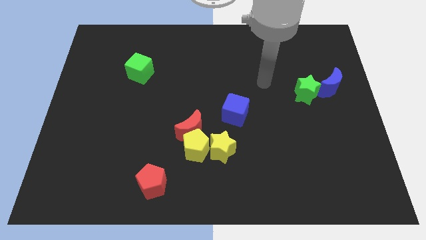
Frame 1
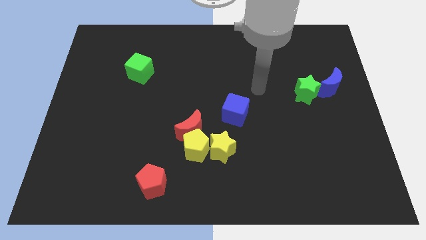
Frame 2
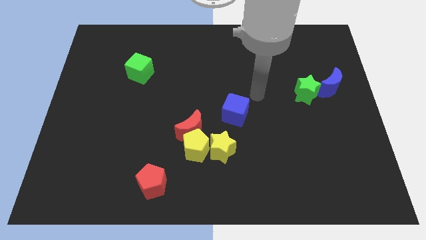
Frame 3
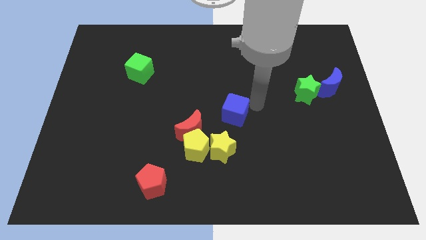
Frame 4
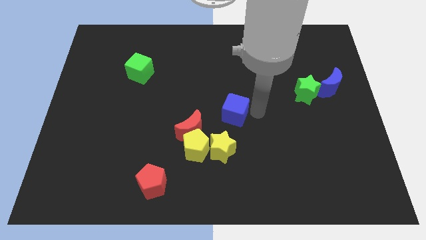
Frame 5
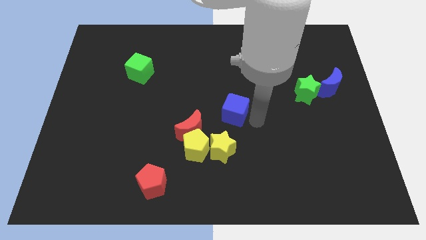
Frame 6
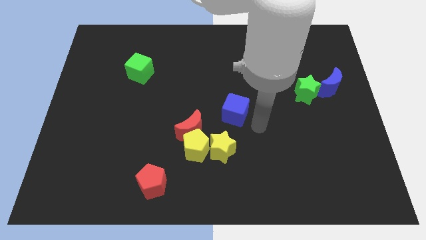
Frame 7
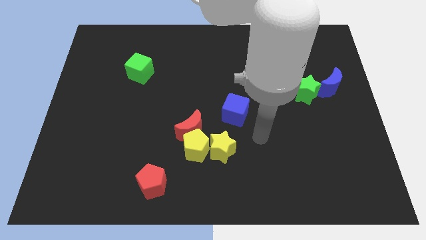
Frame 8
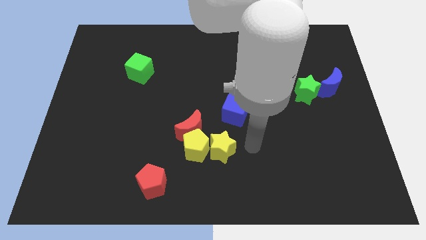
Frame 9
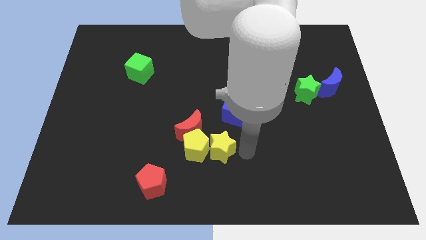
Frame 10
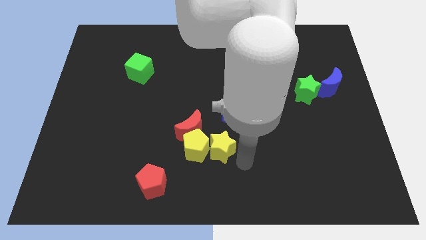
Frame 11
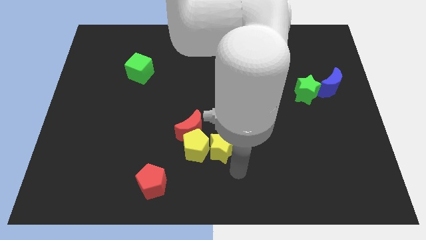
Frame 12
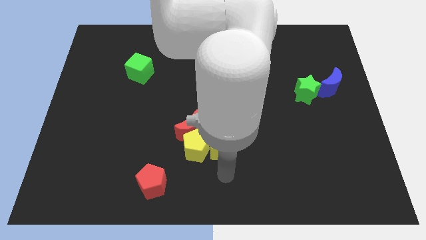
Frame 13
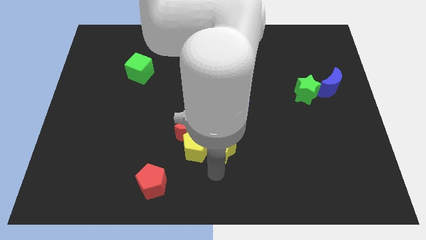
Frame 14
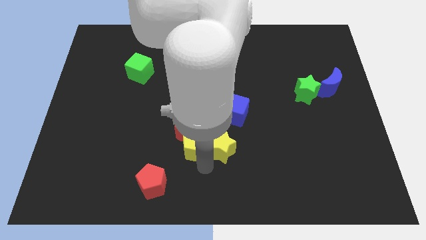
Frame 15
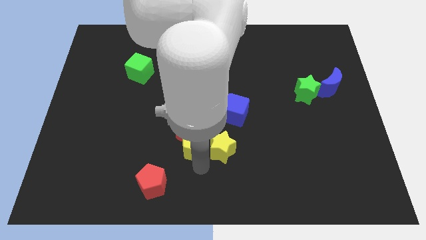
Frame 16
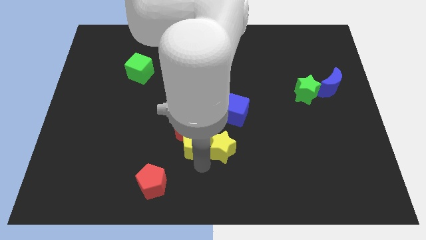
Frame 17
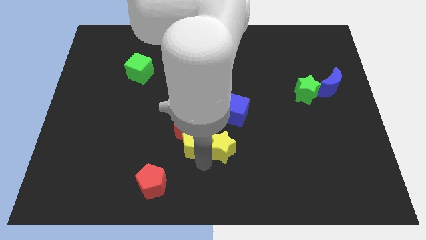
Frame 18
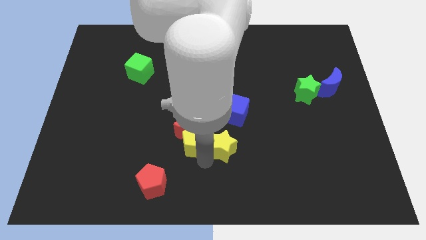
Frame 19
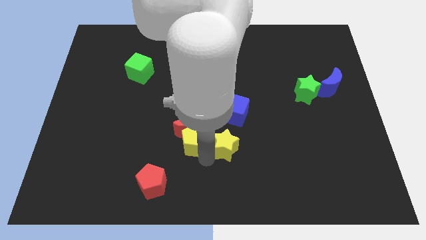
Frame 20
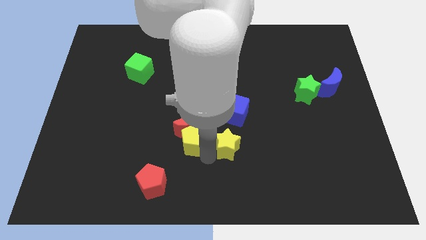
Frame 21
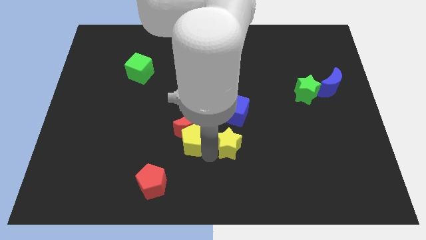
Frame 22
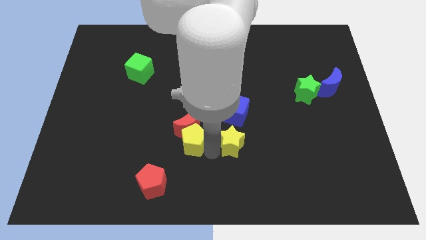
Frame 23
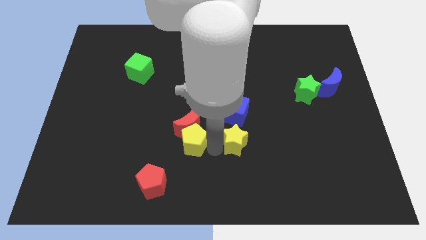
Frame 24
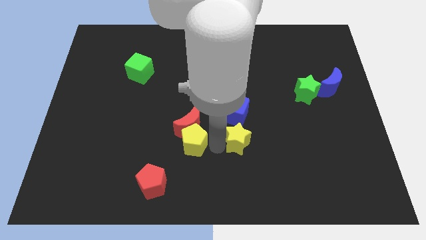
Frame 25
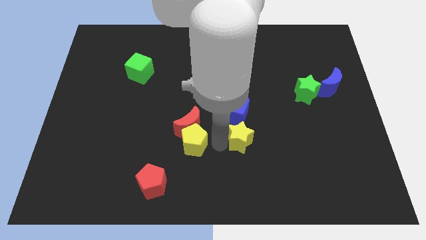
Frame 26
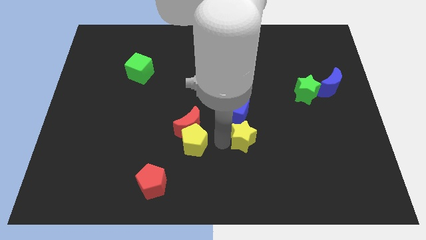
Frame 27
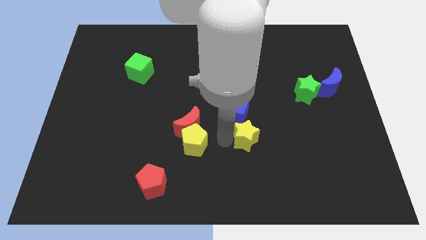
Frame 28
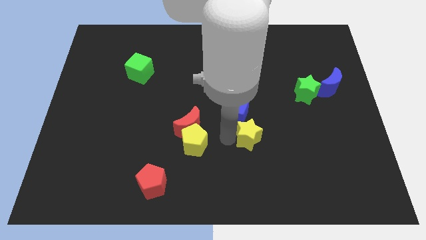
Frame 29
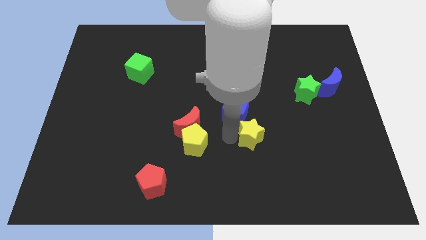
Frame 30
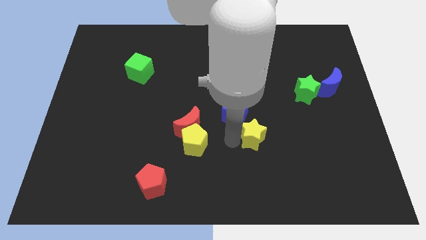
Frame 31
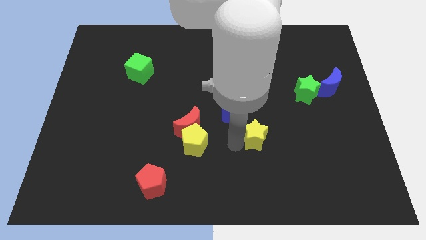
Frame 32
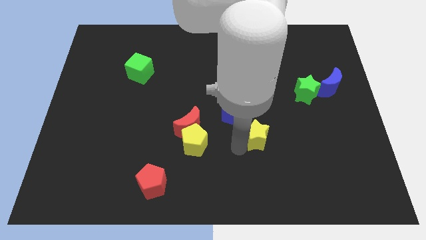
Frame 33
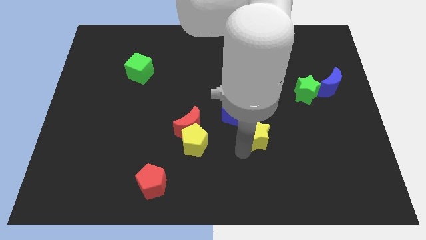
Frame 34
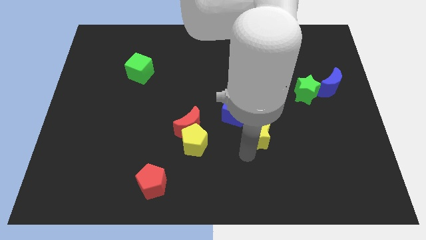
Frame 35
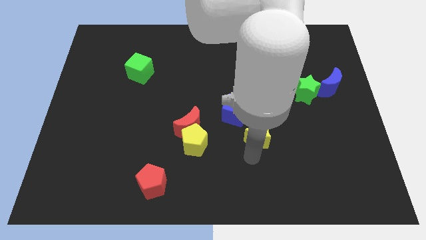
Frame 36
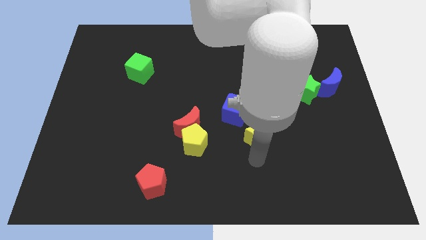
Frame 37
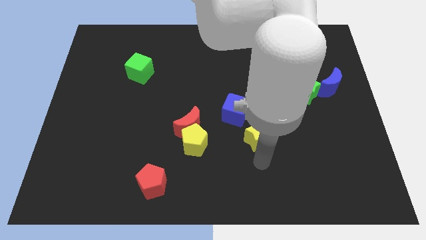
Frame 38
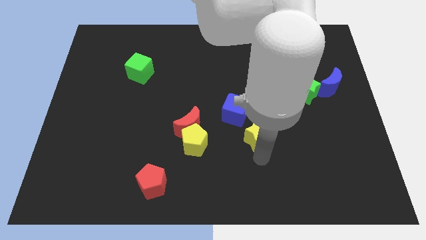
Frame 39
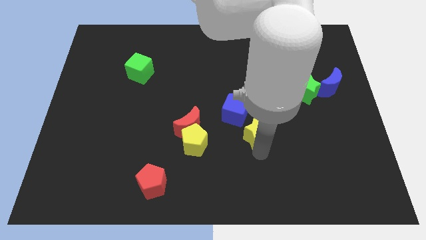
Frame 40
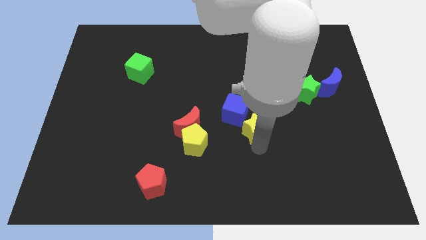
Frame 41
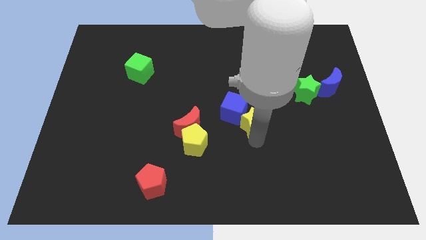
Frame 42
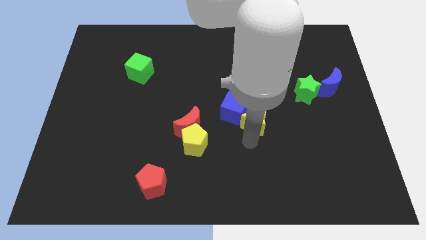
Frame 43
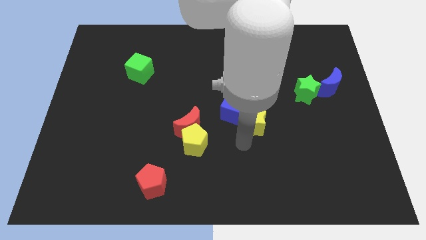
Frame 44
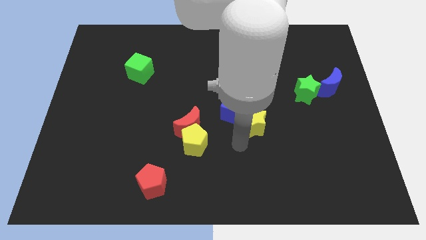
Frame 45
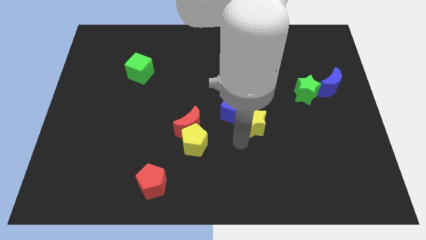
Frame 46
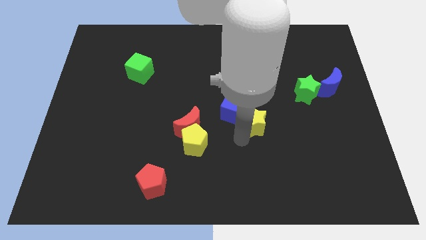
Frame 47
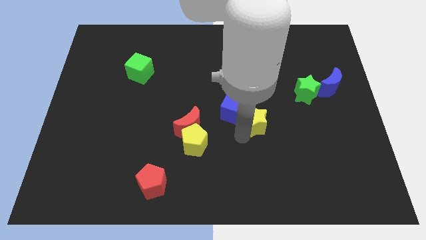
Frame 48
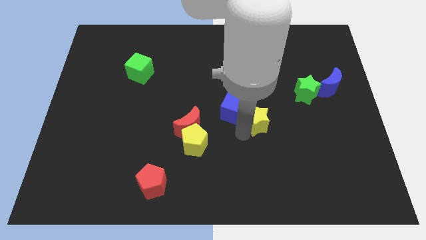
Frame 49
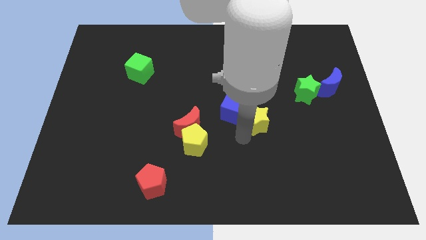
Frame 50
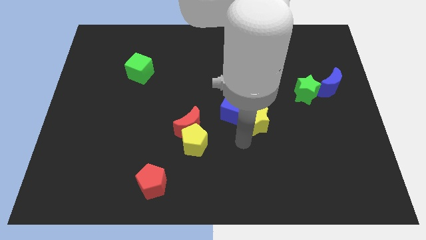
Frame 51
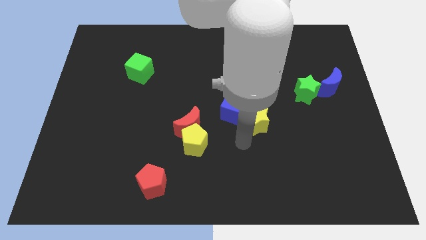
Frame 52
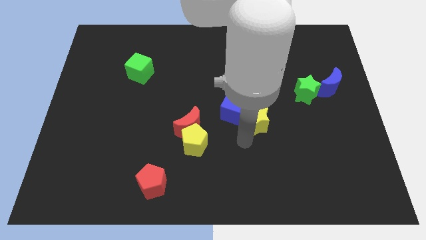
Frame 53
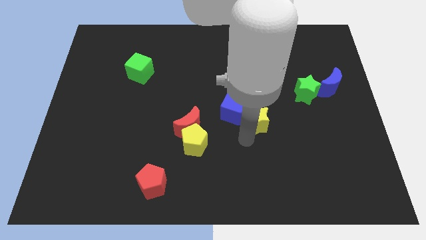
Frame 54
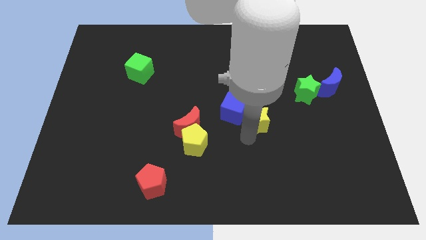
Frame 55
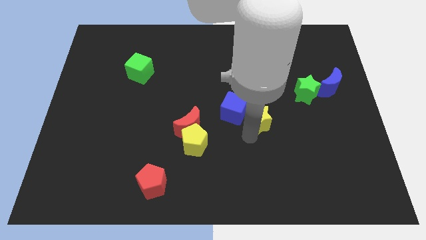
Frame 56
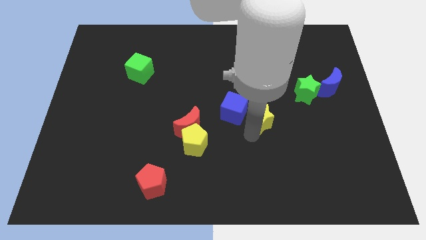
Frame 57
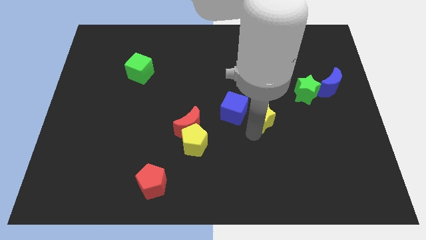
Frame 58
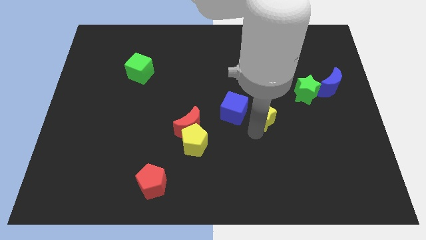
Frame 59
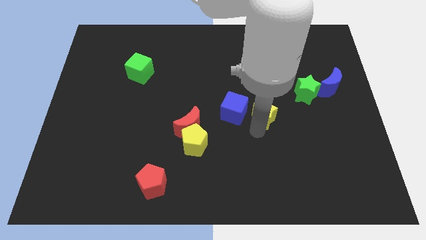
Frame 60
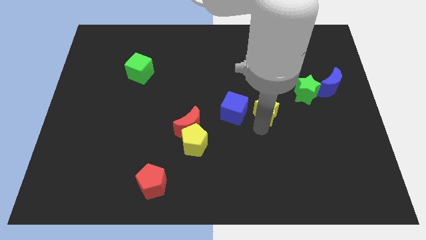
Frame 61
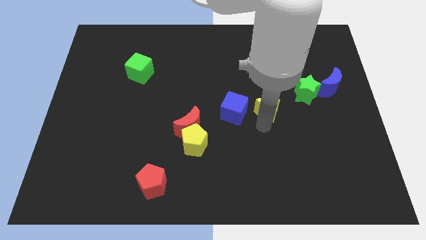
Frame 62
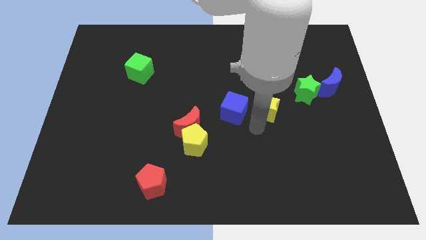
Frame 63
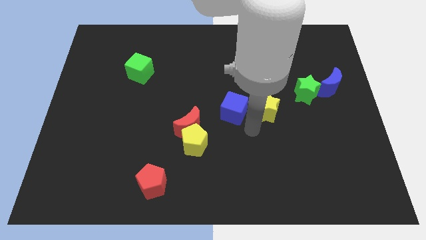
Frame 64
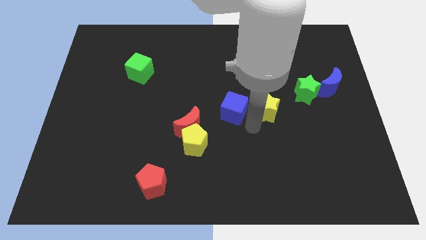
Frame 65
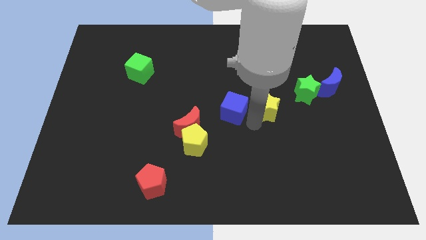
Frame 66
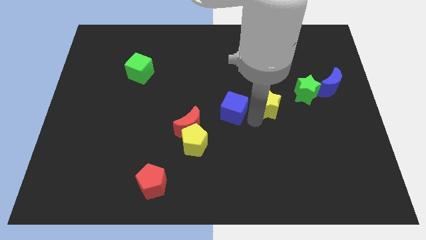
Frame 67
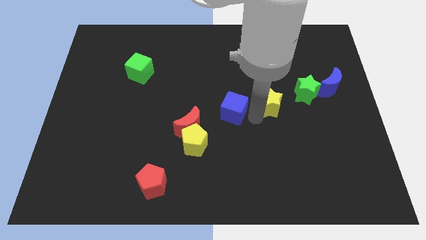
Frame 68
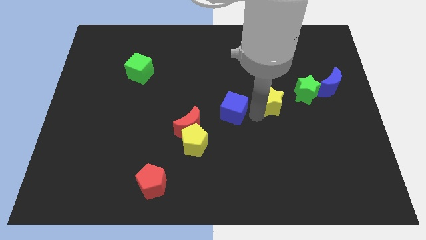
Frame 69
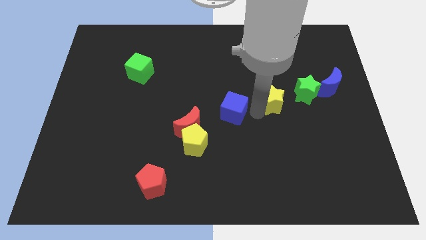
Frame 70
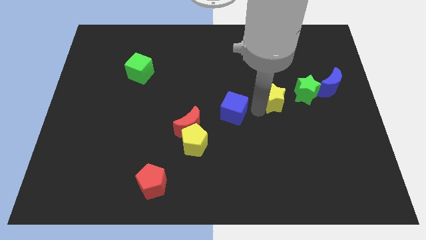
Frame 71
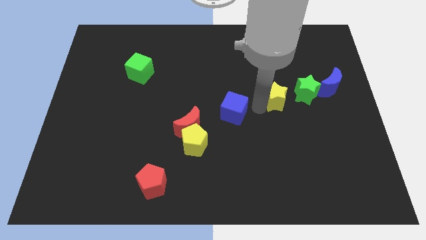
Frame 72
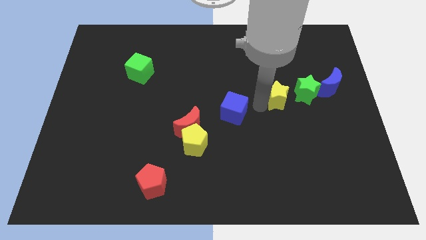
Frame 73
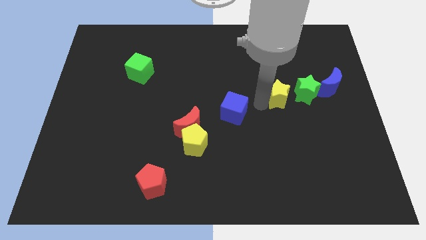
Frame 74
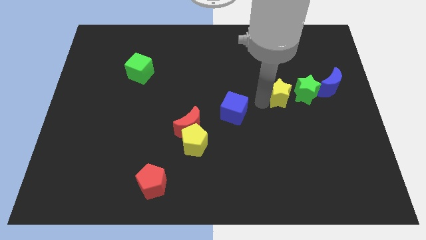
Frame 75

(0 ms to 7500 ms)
slide the yellow star up and then to the right

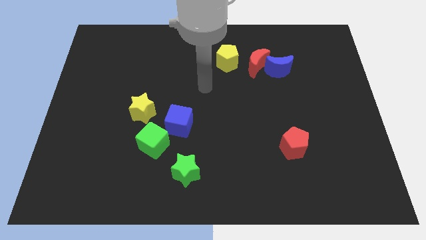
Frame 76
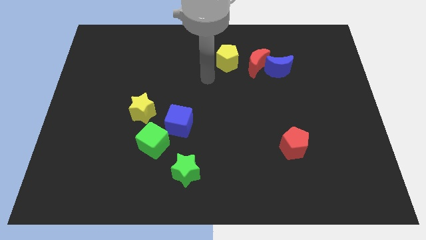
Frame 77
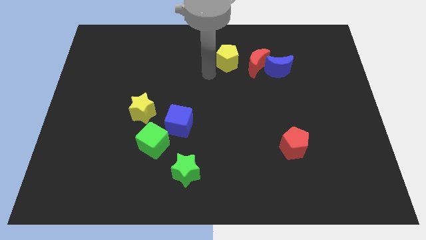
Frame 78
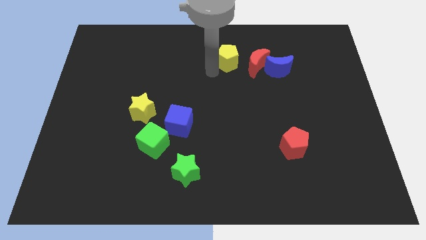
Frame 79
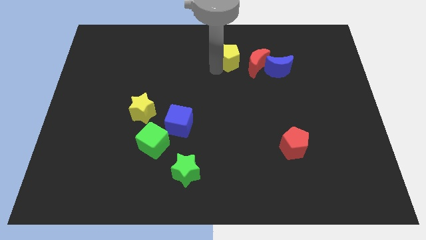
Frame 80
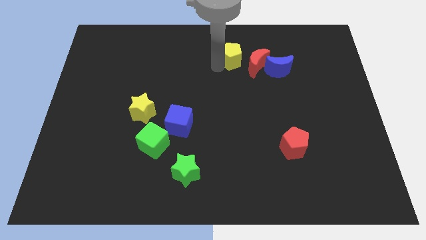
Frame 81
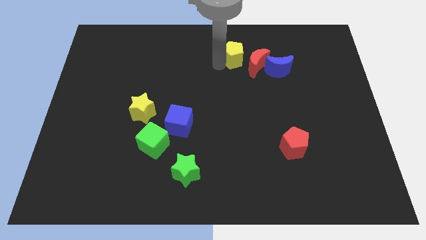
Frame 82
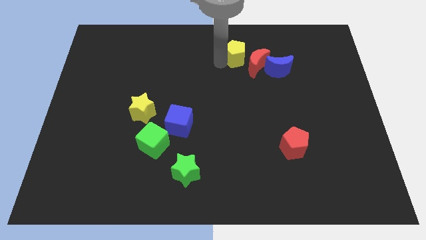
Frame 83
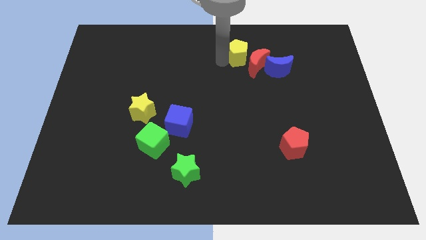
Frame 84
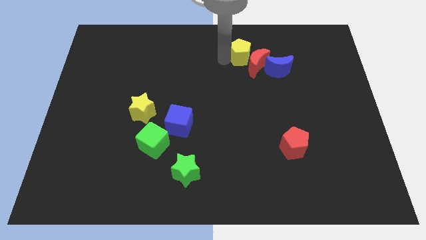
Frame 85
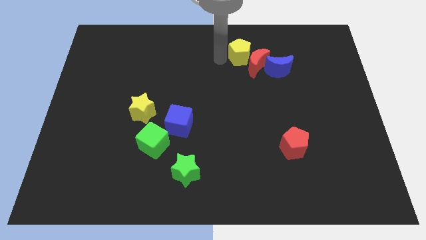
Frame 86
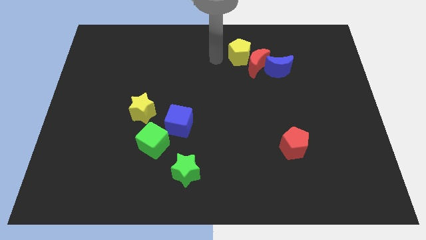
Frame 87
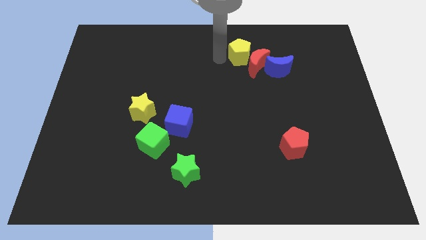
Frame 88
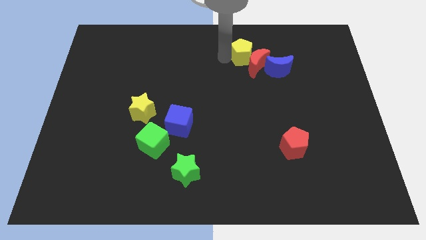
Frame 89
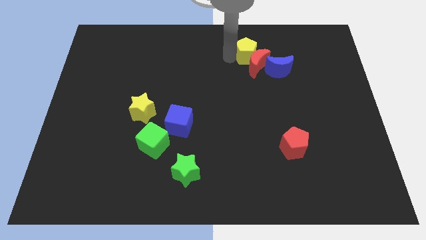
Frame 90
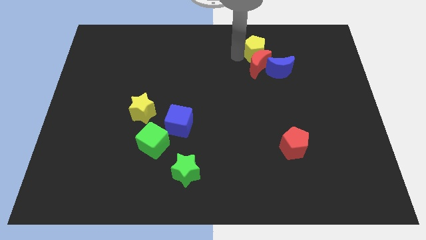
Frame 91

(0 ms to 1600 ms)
push the yellow pentagon a bit right
